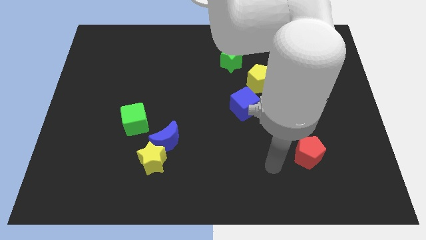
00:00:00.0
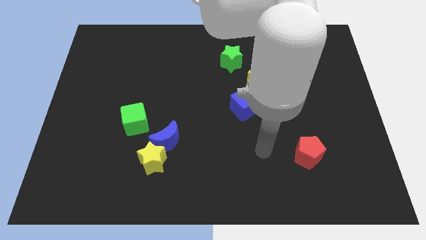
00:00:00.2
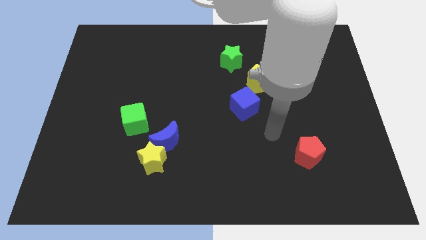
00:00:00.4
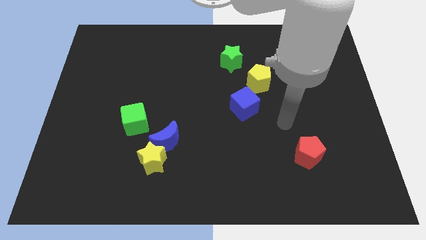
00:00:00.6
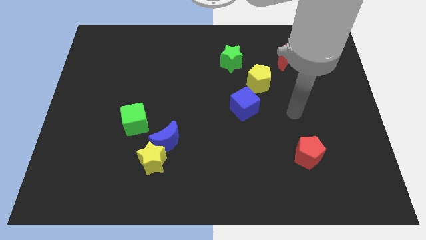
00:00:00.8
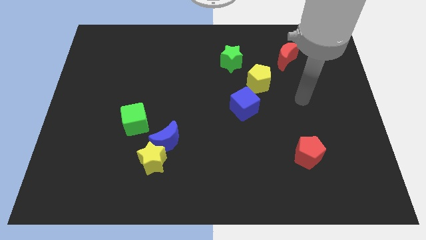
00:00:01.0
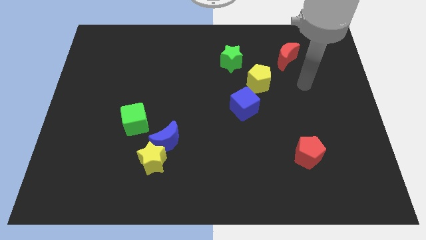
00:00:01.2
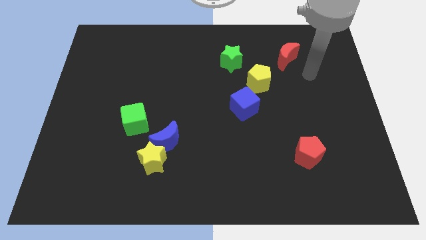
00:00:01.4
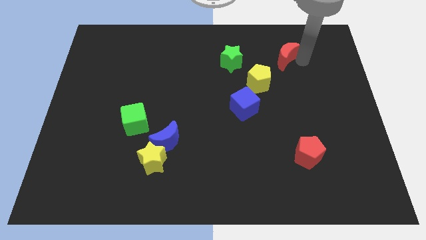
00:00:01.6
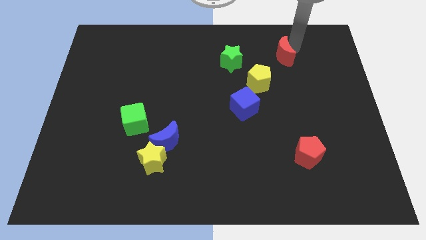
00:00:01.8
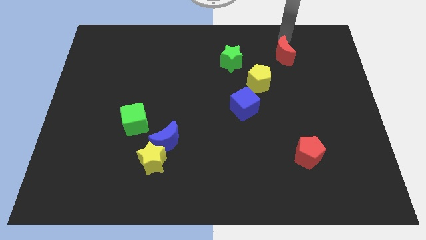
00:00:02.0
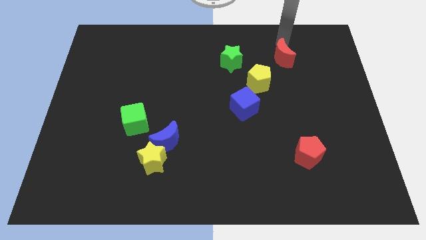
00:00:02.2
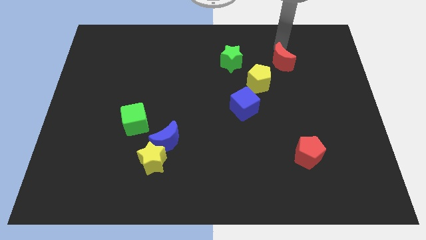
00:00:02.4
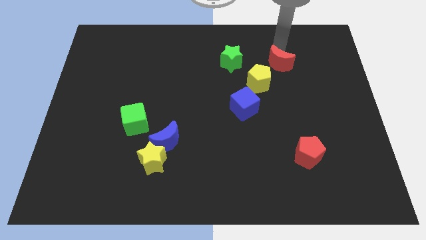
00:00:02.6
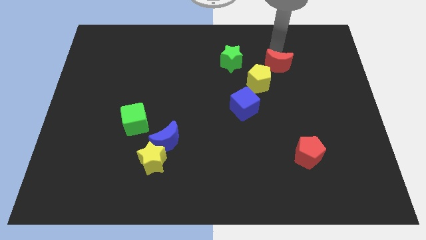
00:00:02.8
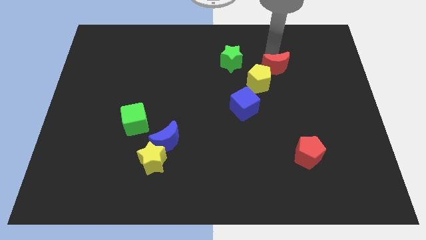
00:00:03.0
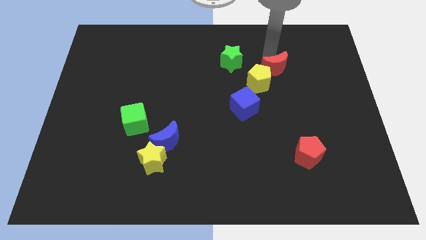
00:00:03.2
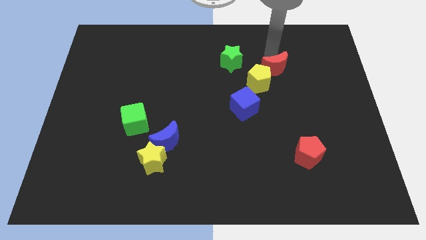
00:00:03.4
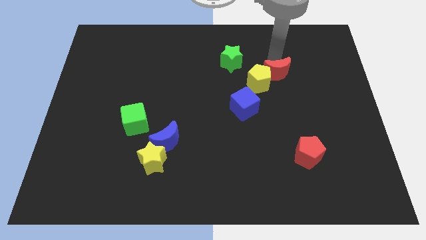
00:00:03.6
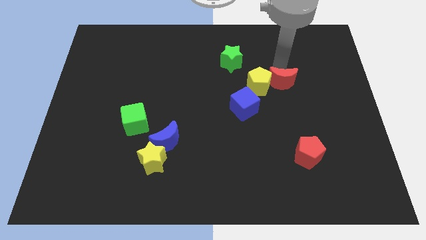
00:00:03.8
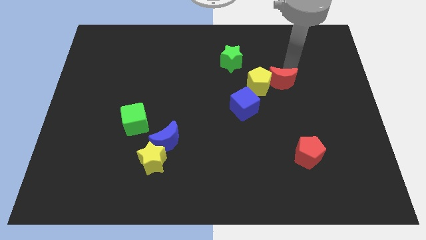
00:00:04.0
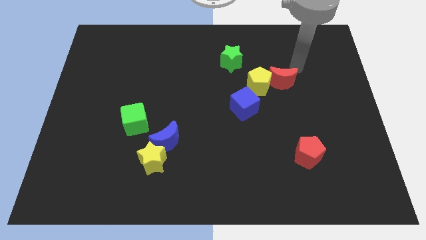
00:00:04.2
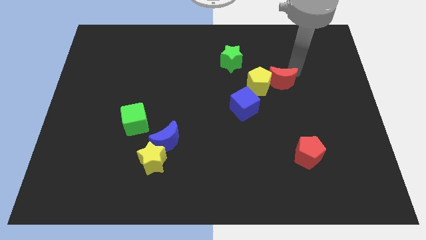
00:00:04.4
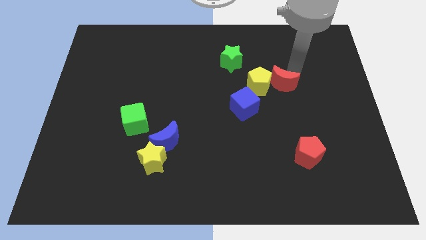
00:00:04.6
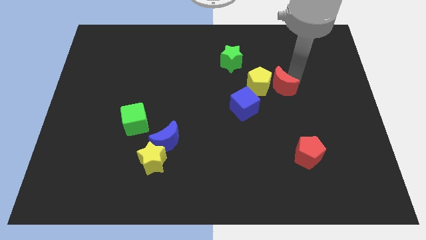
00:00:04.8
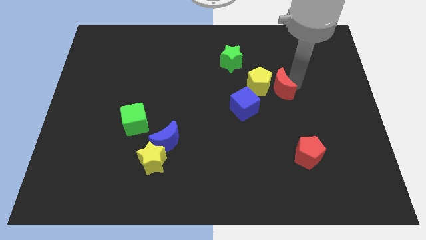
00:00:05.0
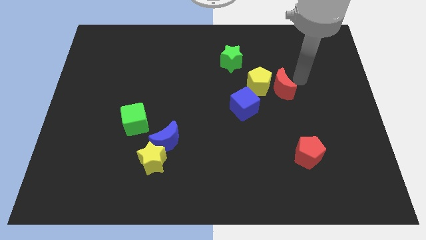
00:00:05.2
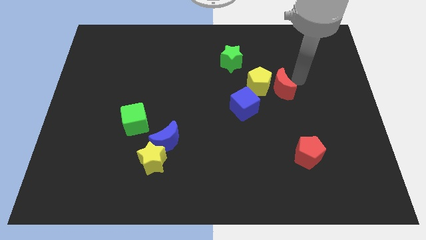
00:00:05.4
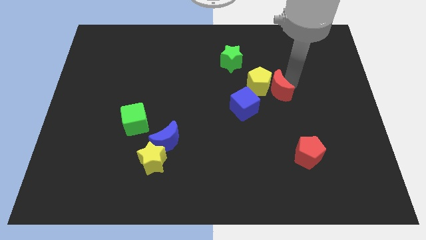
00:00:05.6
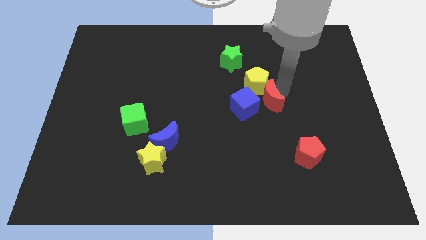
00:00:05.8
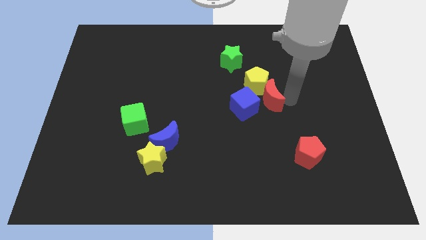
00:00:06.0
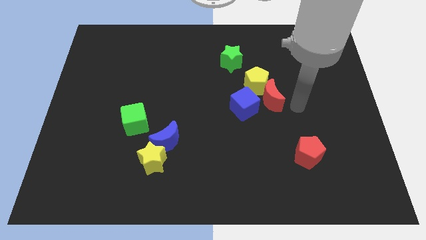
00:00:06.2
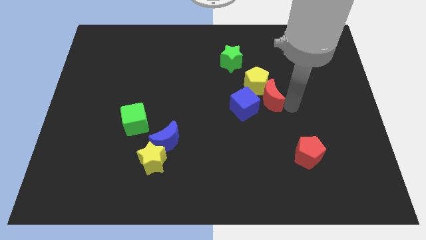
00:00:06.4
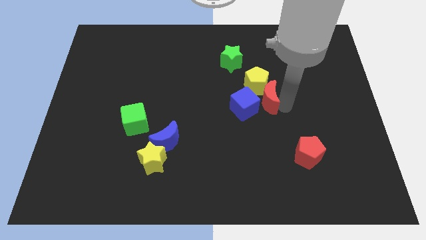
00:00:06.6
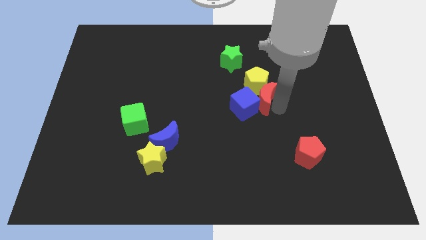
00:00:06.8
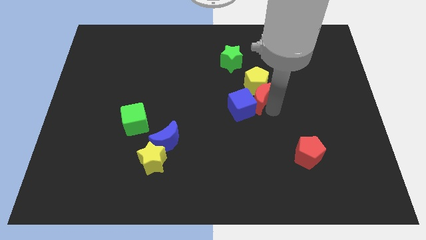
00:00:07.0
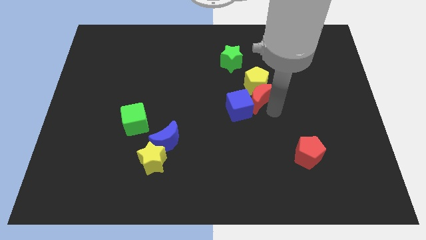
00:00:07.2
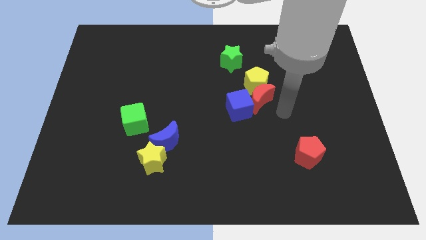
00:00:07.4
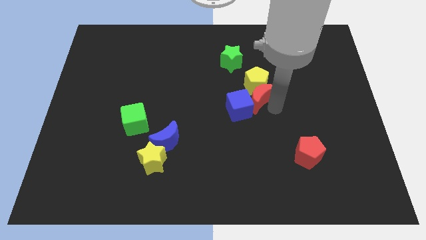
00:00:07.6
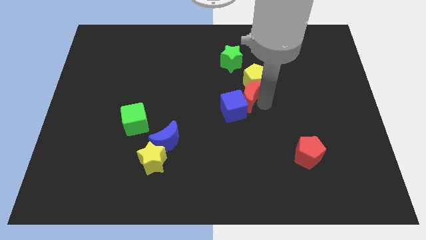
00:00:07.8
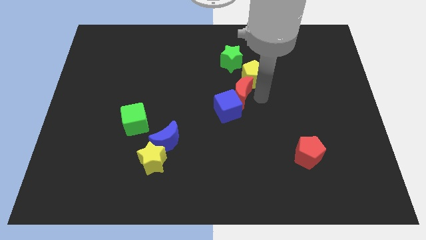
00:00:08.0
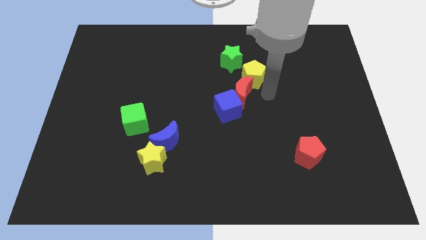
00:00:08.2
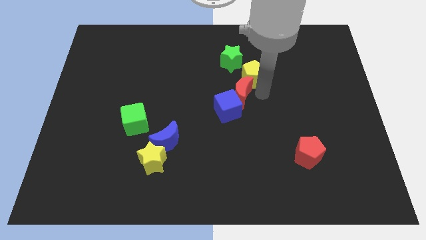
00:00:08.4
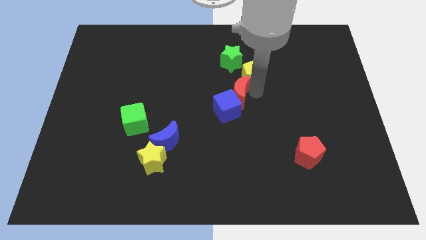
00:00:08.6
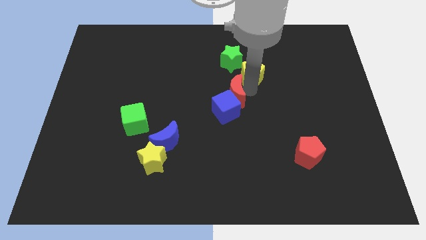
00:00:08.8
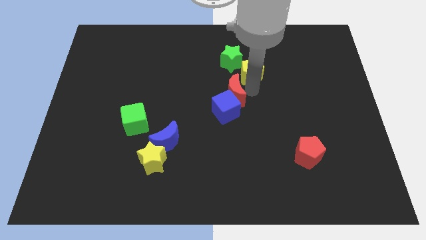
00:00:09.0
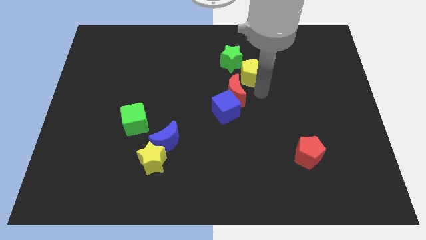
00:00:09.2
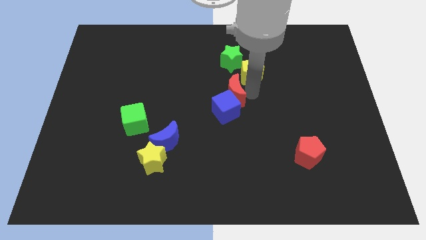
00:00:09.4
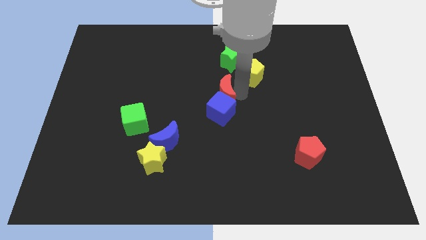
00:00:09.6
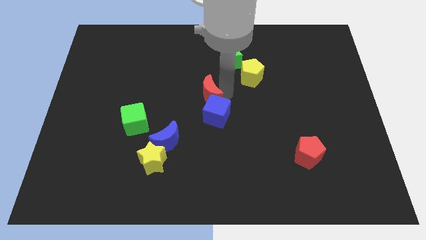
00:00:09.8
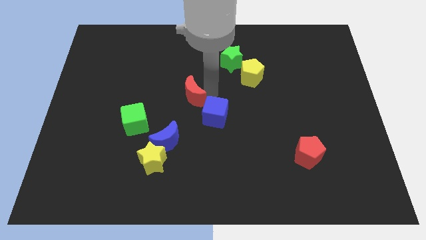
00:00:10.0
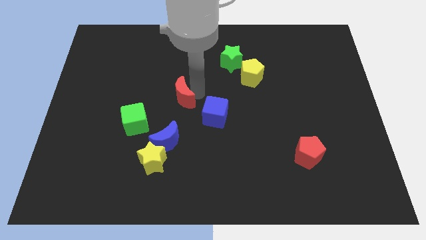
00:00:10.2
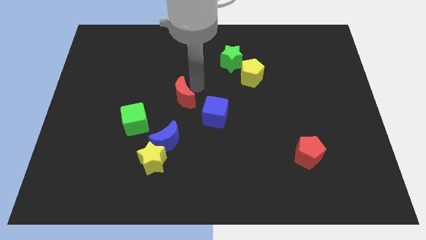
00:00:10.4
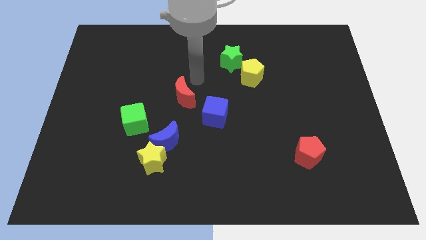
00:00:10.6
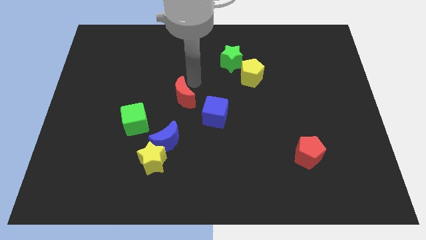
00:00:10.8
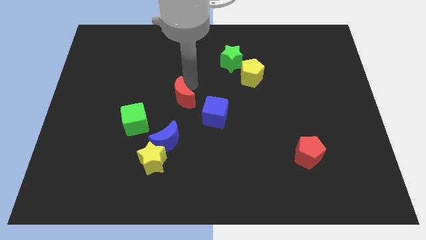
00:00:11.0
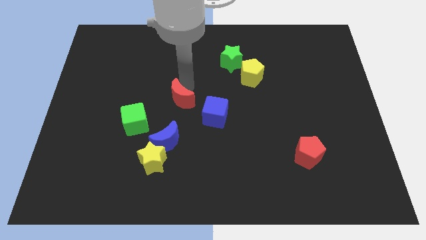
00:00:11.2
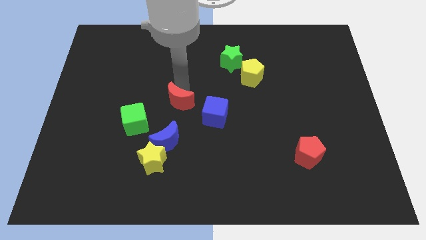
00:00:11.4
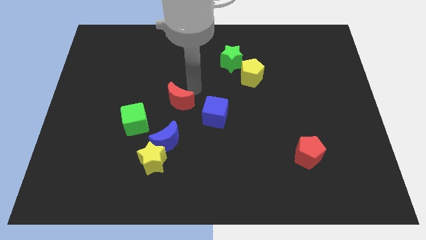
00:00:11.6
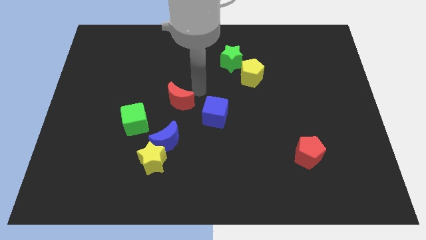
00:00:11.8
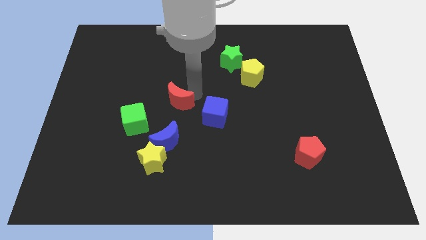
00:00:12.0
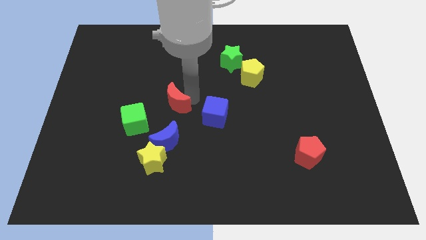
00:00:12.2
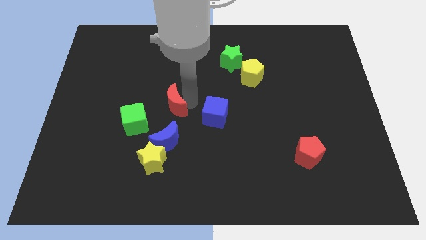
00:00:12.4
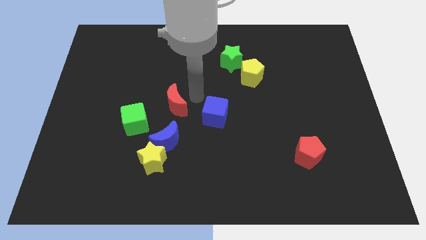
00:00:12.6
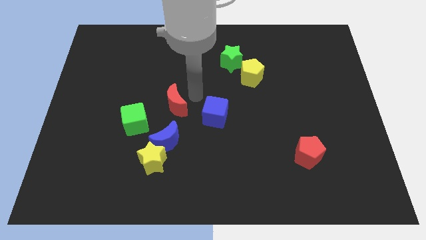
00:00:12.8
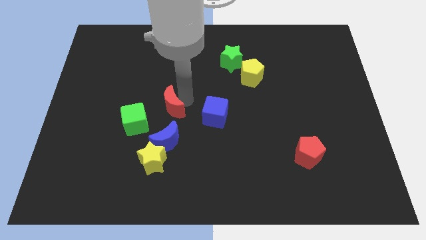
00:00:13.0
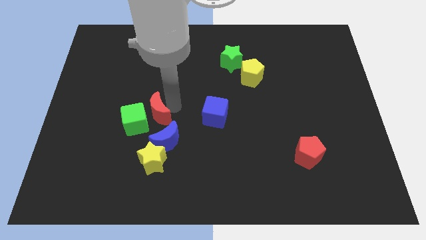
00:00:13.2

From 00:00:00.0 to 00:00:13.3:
slide the red moon to the green cube
